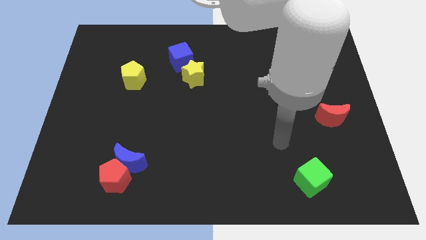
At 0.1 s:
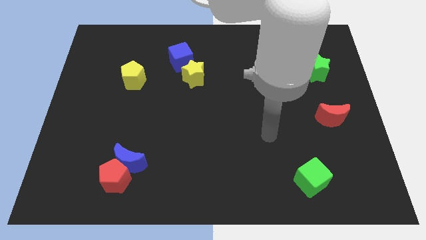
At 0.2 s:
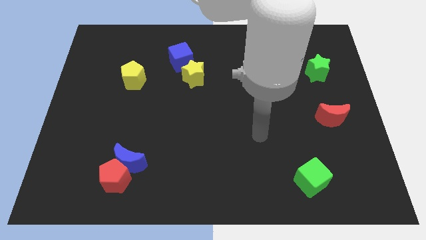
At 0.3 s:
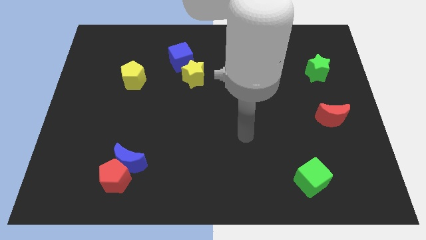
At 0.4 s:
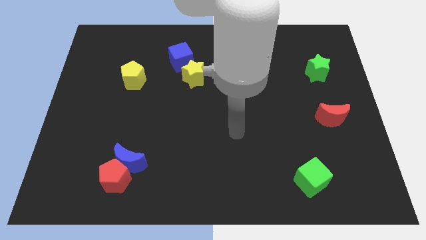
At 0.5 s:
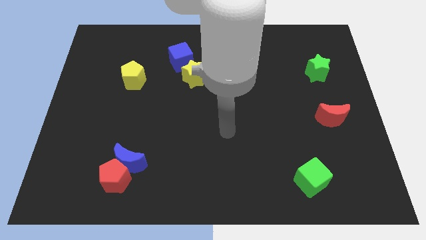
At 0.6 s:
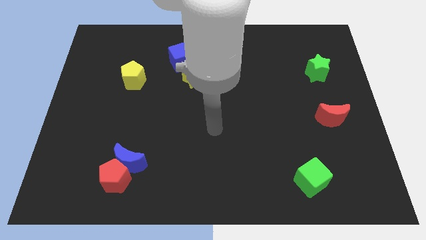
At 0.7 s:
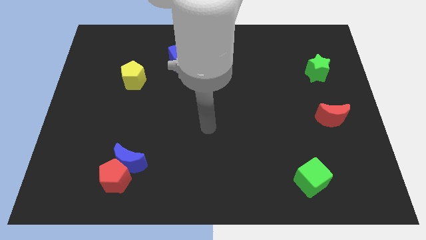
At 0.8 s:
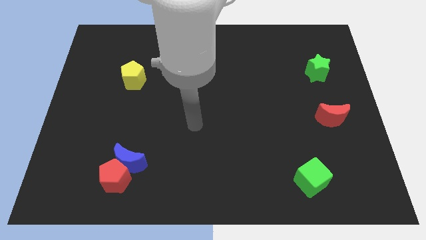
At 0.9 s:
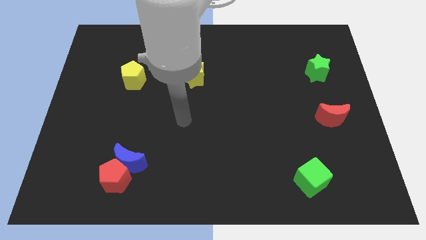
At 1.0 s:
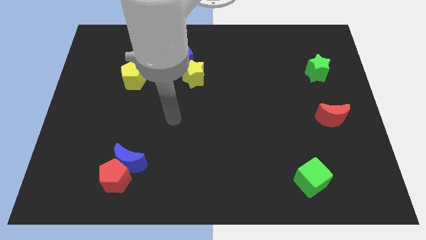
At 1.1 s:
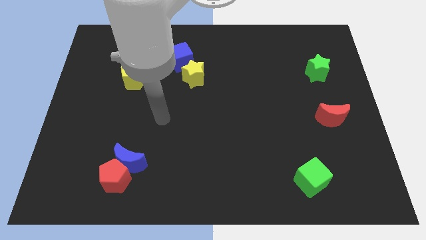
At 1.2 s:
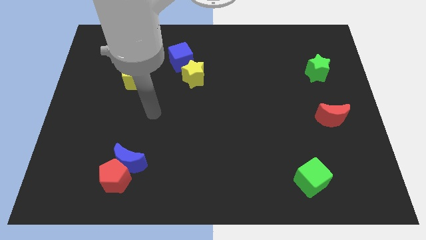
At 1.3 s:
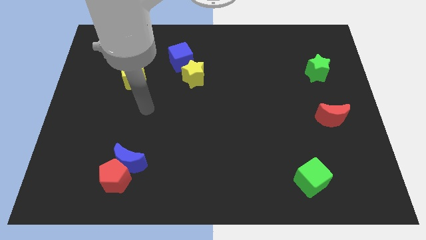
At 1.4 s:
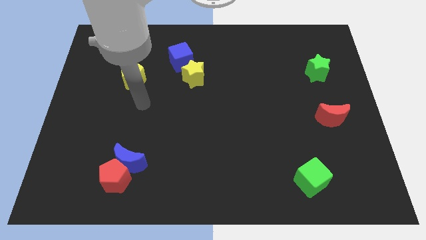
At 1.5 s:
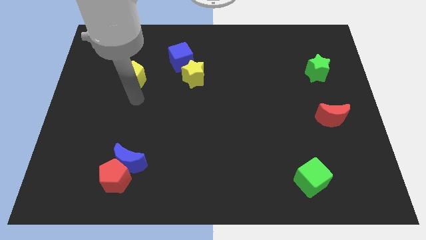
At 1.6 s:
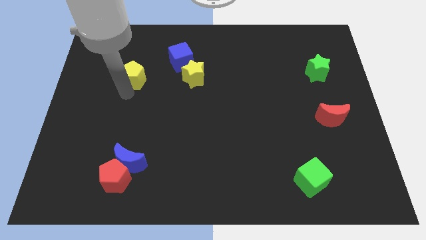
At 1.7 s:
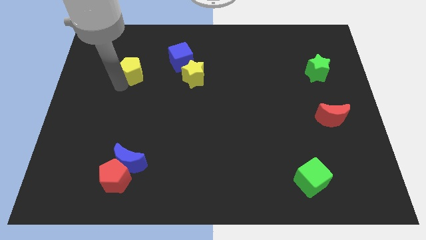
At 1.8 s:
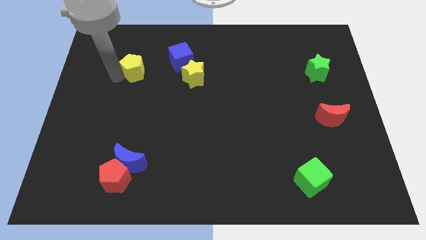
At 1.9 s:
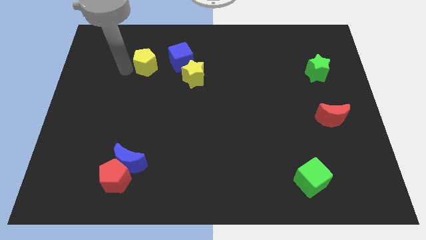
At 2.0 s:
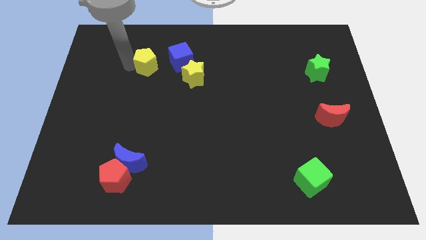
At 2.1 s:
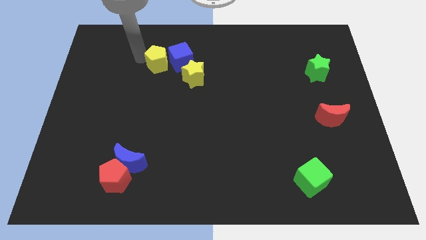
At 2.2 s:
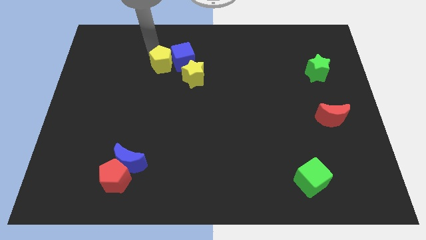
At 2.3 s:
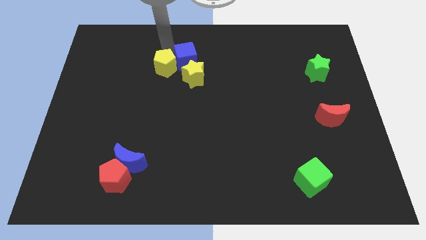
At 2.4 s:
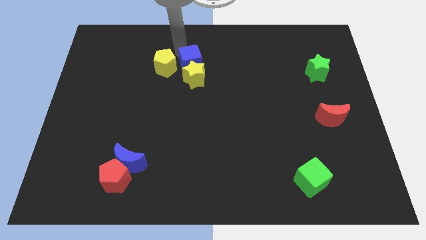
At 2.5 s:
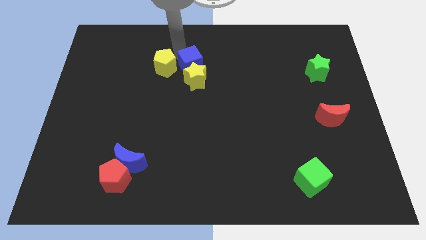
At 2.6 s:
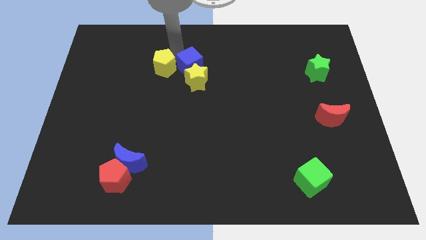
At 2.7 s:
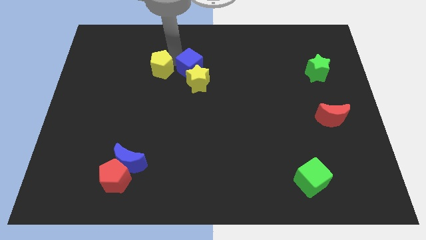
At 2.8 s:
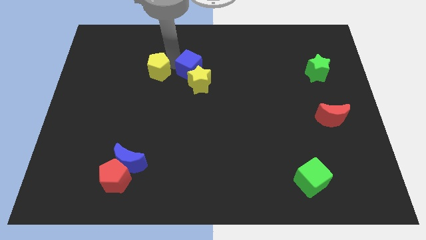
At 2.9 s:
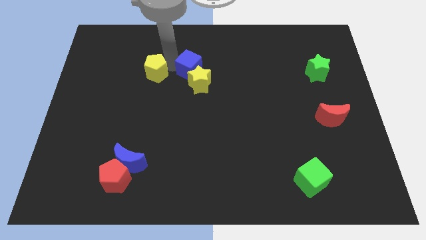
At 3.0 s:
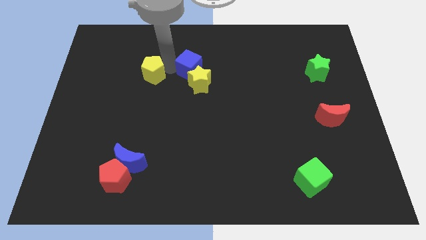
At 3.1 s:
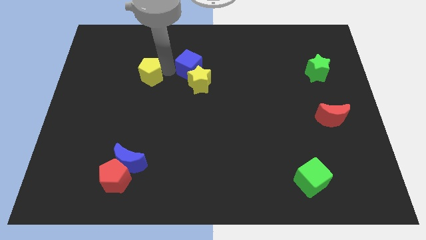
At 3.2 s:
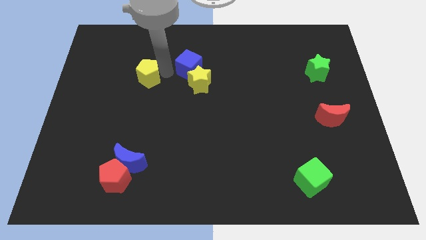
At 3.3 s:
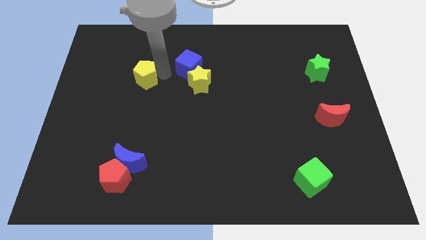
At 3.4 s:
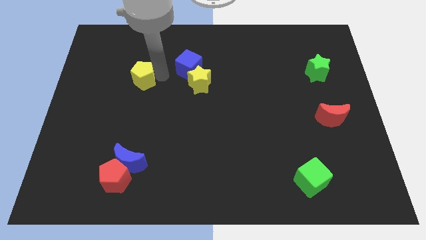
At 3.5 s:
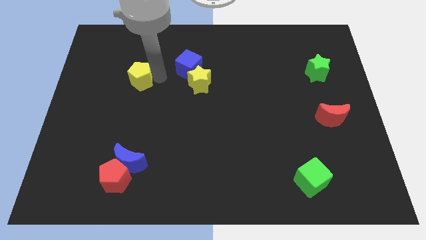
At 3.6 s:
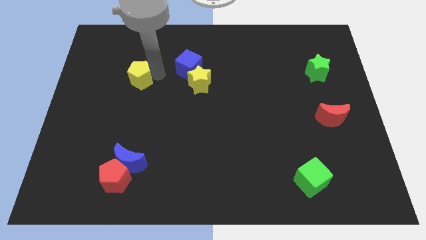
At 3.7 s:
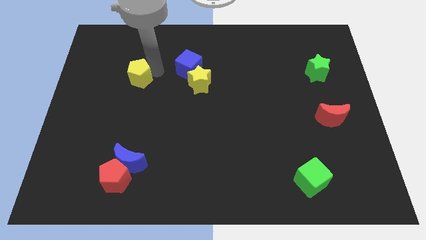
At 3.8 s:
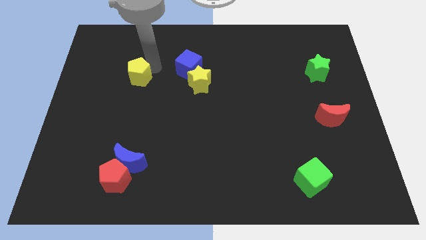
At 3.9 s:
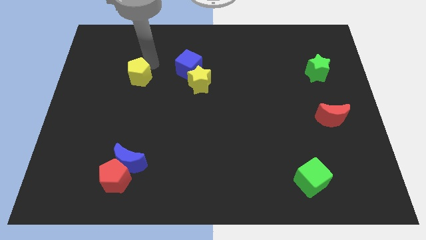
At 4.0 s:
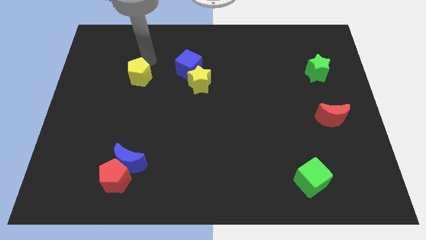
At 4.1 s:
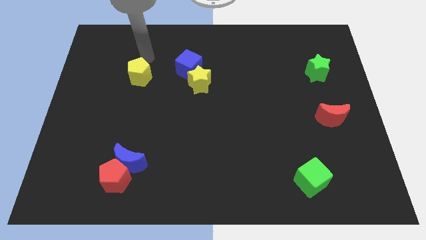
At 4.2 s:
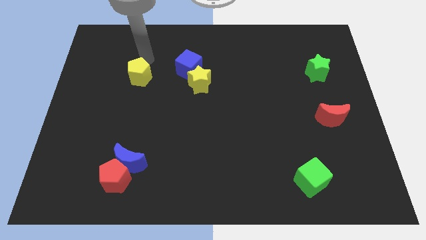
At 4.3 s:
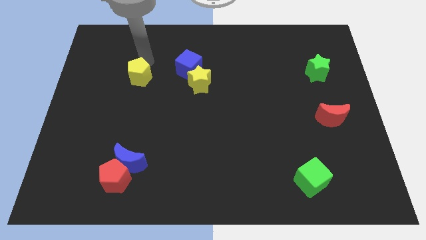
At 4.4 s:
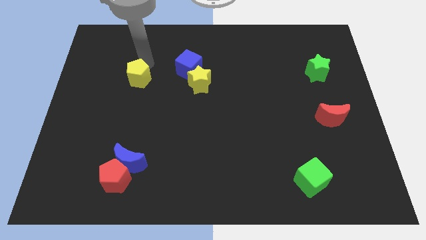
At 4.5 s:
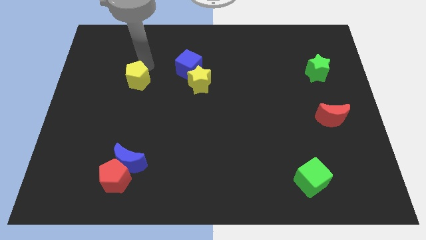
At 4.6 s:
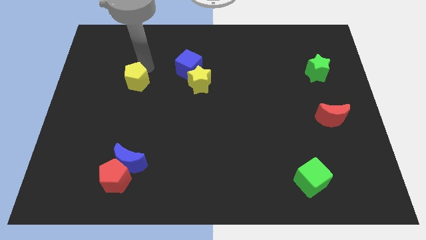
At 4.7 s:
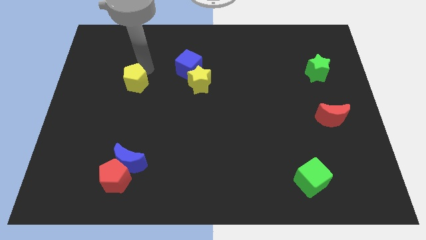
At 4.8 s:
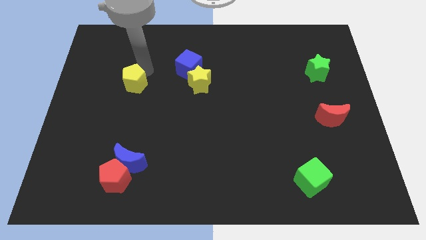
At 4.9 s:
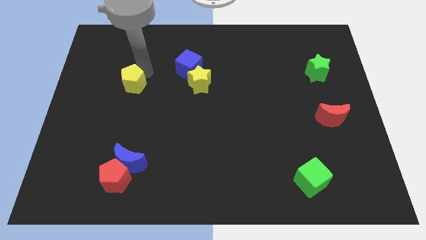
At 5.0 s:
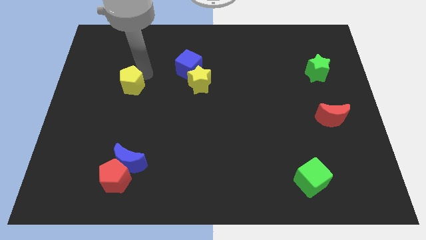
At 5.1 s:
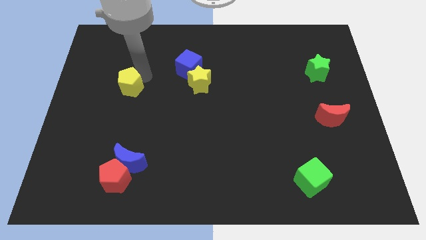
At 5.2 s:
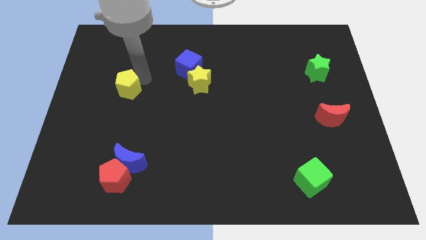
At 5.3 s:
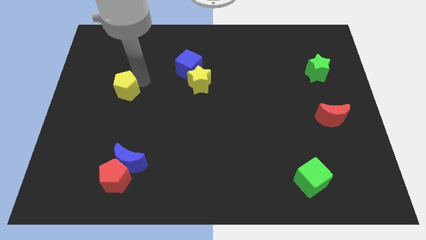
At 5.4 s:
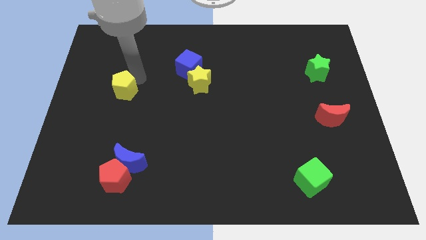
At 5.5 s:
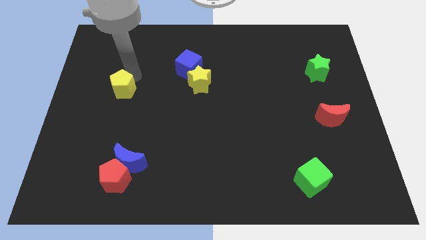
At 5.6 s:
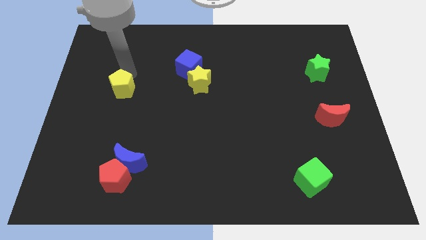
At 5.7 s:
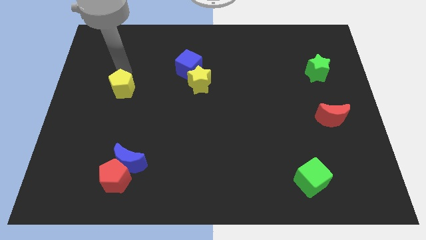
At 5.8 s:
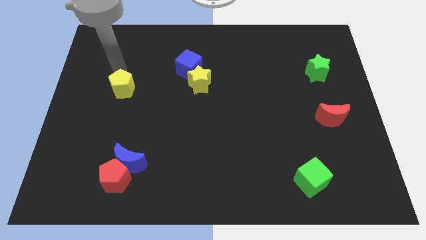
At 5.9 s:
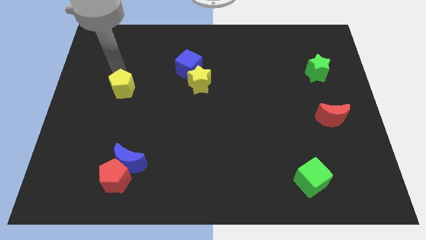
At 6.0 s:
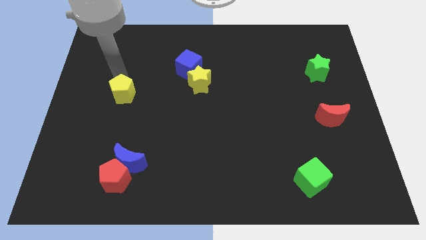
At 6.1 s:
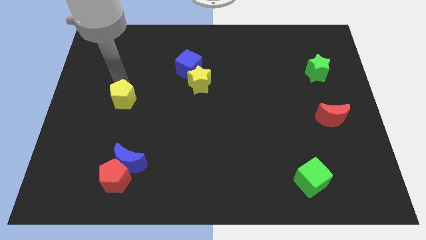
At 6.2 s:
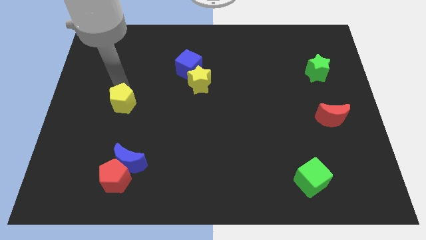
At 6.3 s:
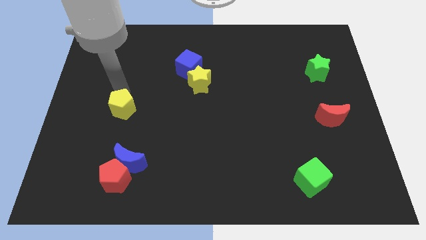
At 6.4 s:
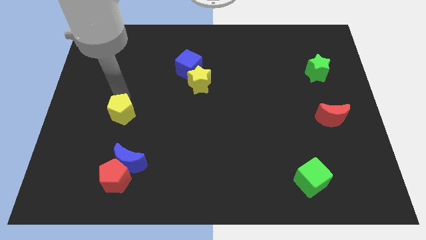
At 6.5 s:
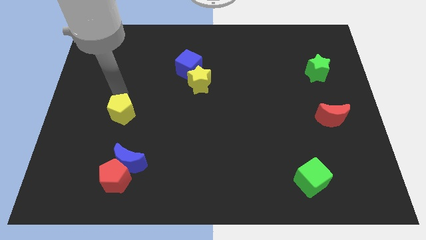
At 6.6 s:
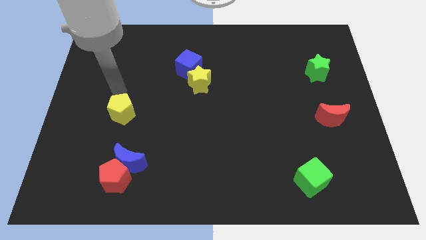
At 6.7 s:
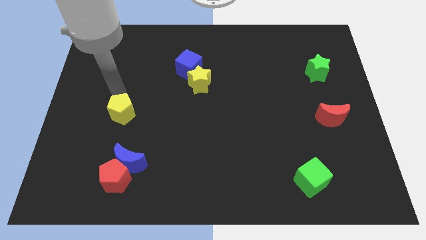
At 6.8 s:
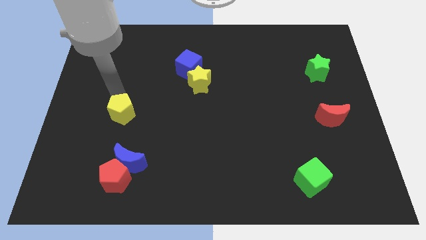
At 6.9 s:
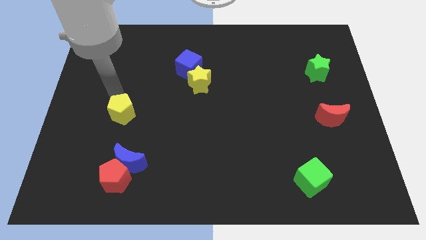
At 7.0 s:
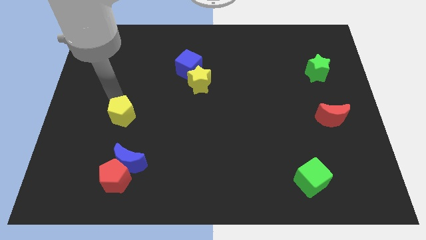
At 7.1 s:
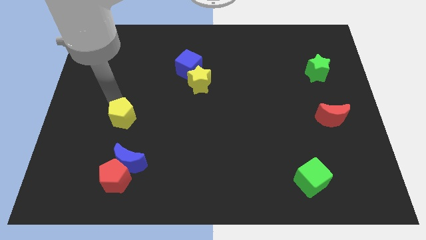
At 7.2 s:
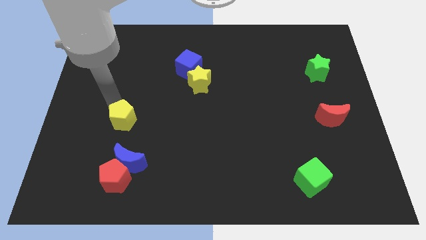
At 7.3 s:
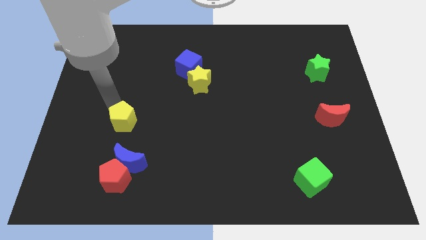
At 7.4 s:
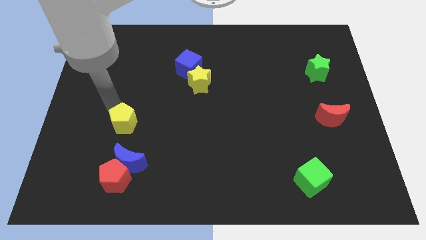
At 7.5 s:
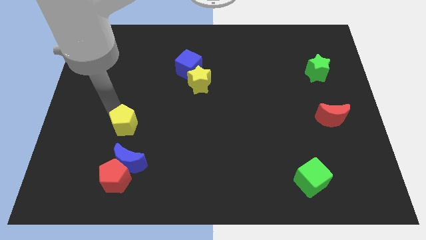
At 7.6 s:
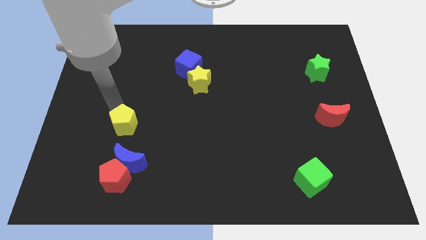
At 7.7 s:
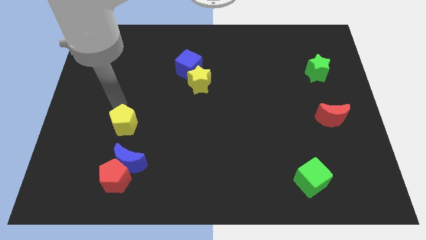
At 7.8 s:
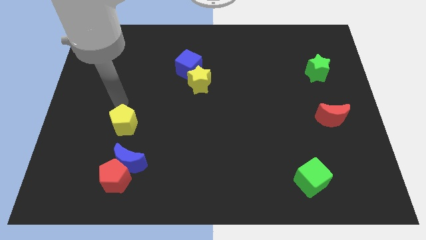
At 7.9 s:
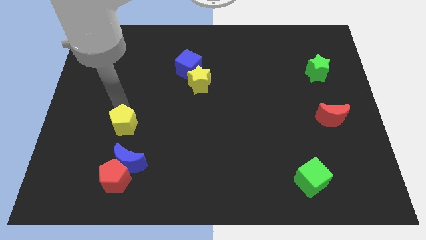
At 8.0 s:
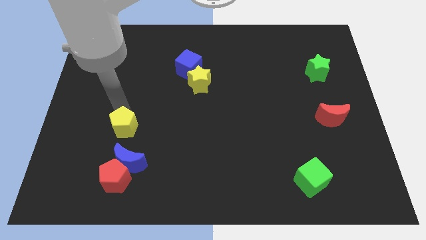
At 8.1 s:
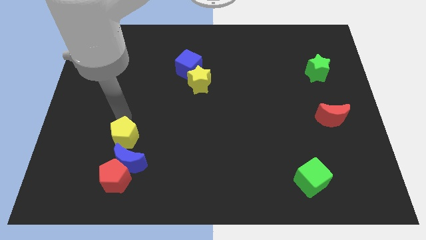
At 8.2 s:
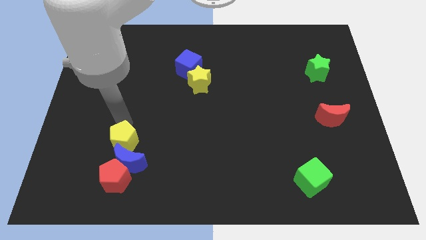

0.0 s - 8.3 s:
put the yellow pentagon close to the blue moon
